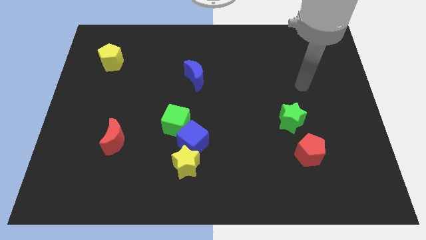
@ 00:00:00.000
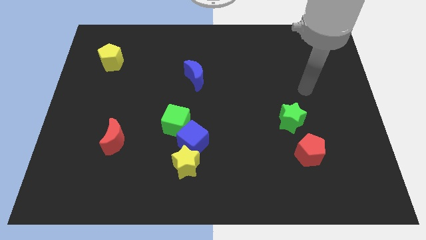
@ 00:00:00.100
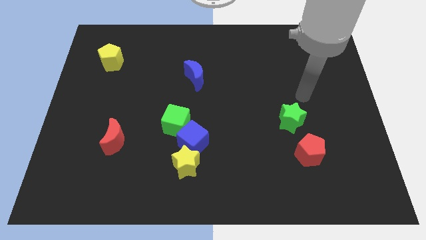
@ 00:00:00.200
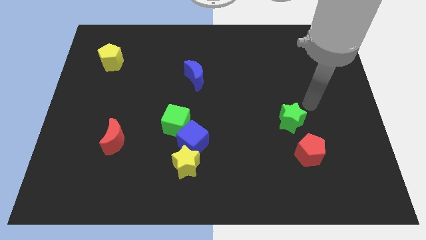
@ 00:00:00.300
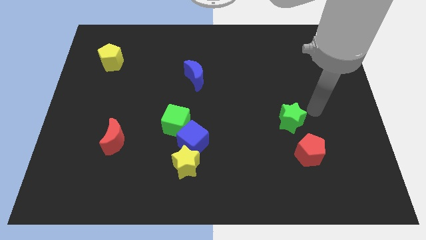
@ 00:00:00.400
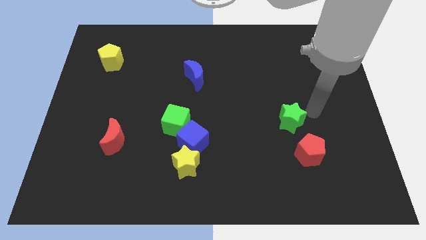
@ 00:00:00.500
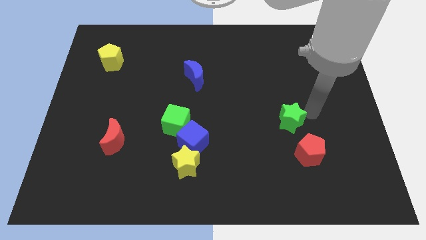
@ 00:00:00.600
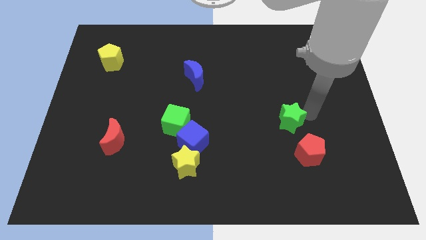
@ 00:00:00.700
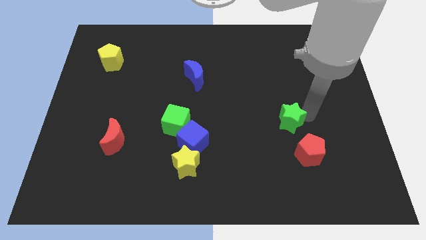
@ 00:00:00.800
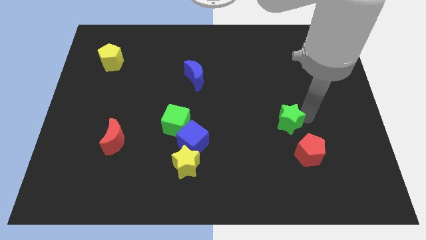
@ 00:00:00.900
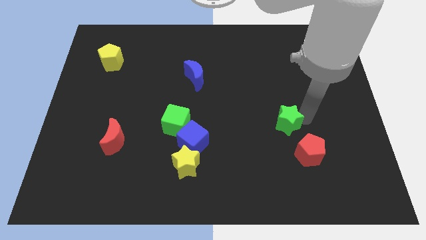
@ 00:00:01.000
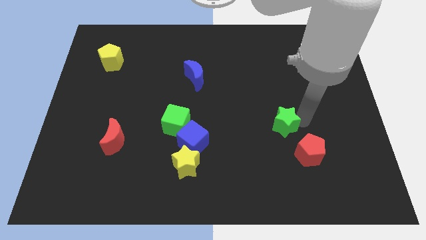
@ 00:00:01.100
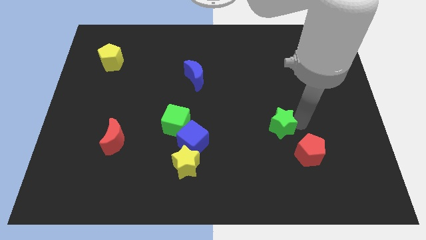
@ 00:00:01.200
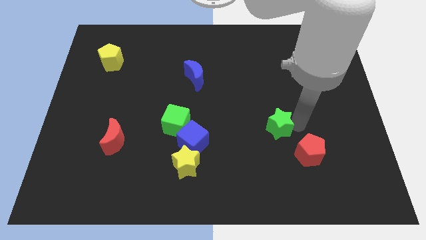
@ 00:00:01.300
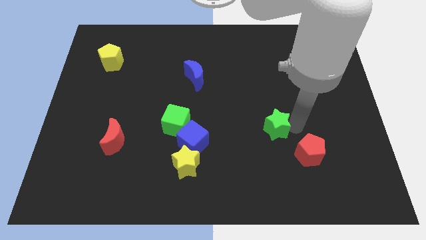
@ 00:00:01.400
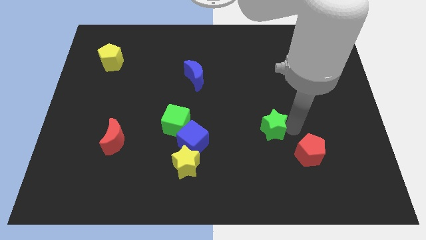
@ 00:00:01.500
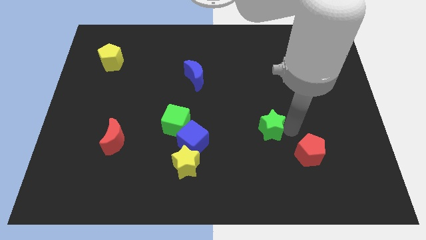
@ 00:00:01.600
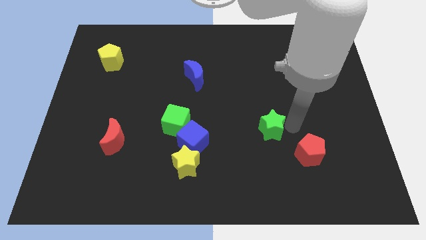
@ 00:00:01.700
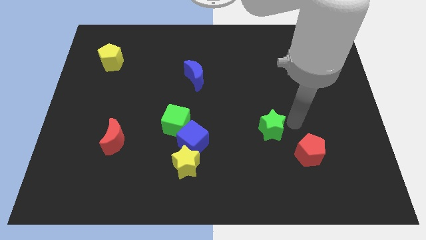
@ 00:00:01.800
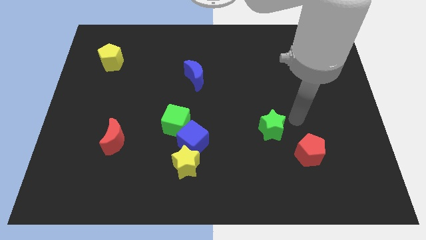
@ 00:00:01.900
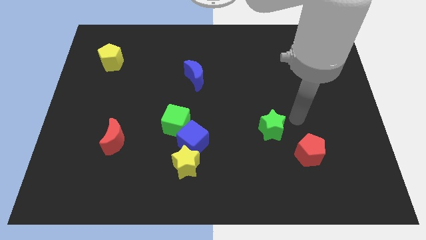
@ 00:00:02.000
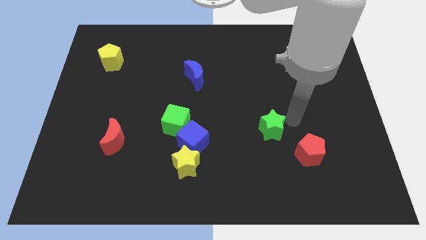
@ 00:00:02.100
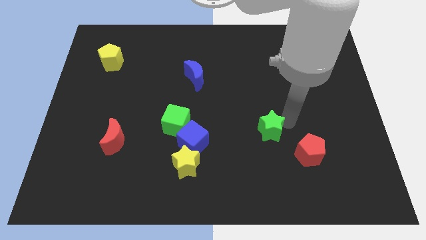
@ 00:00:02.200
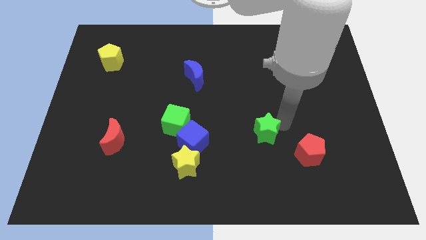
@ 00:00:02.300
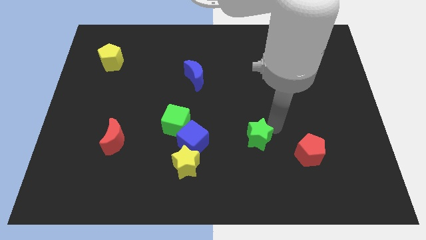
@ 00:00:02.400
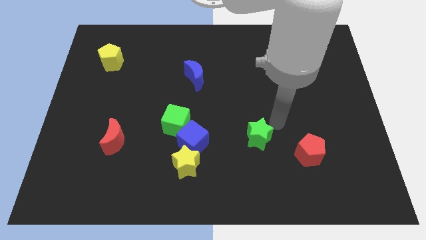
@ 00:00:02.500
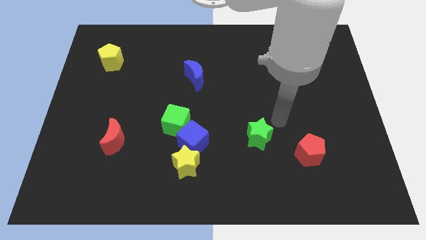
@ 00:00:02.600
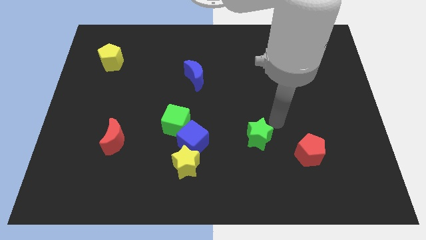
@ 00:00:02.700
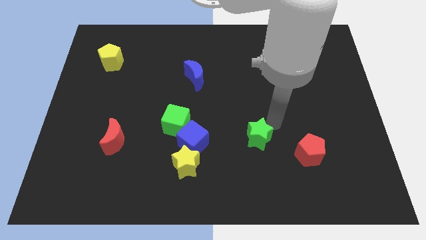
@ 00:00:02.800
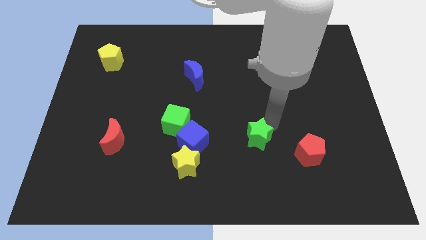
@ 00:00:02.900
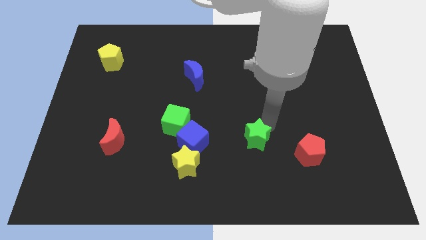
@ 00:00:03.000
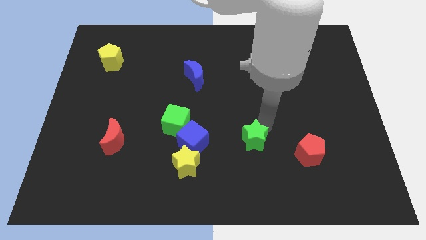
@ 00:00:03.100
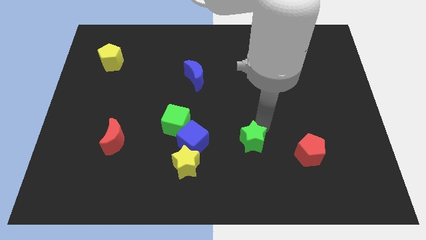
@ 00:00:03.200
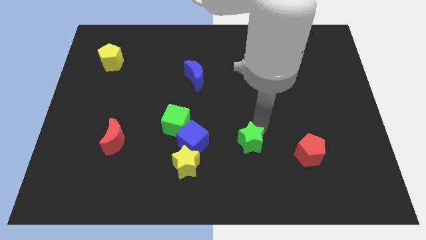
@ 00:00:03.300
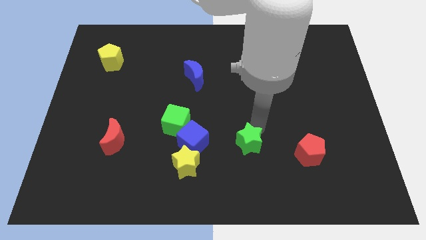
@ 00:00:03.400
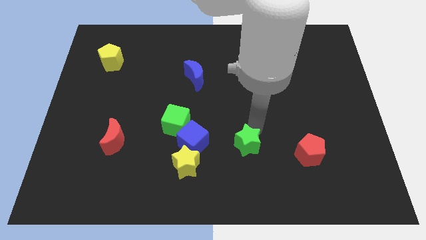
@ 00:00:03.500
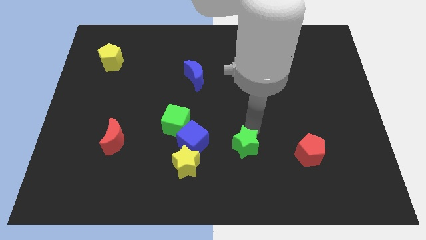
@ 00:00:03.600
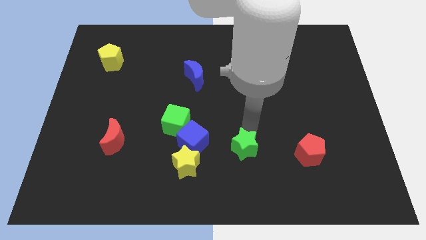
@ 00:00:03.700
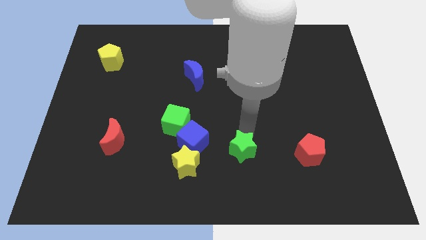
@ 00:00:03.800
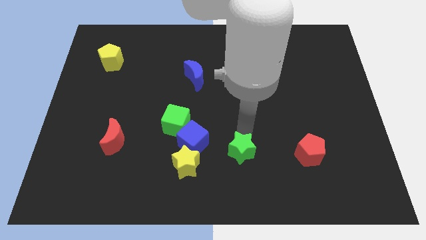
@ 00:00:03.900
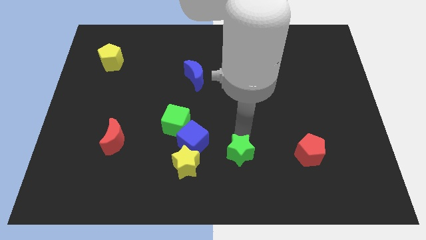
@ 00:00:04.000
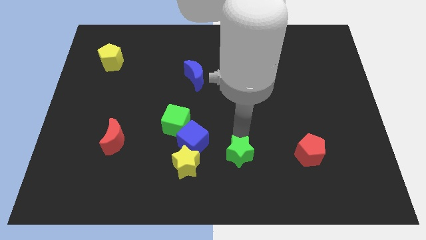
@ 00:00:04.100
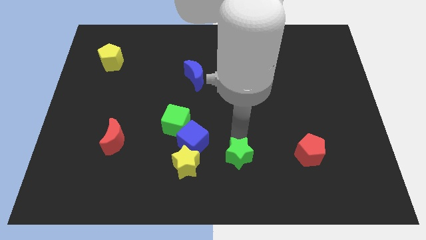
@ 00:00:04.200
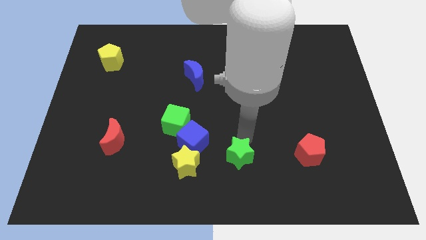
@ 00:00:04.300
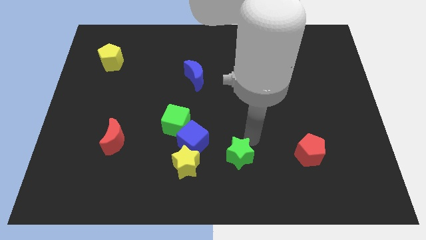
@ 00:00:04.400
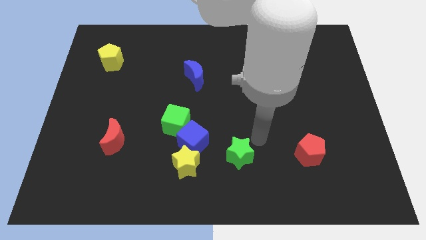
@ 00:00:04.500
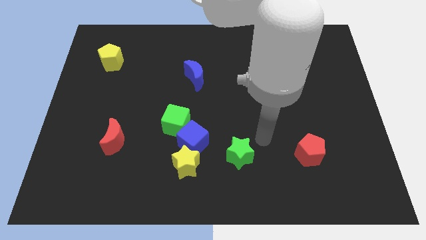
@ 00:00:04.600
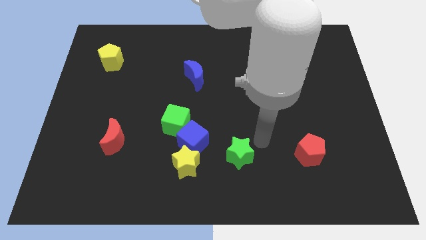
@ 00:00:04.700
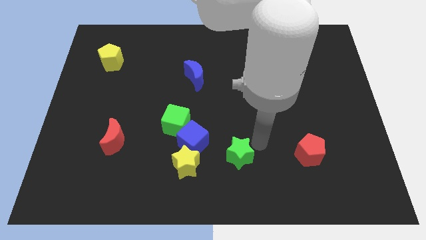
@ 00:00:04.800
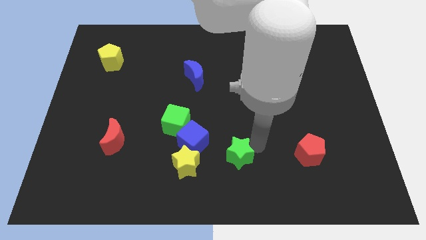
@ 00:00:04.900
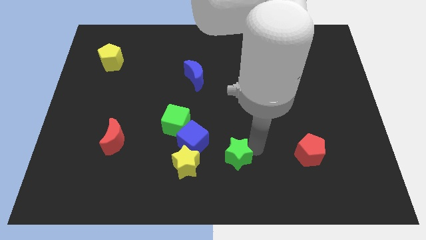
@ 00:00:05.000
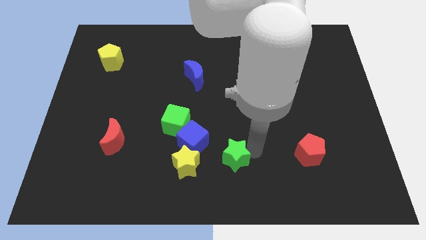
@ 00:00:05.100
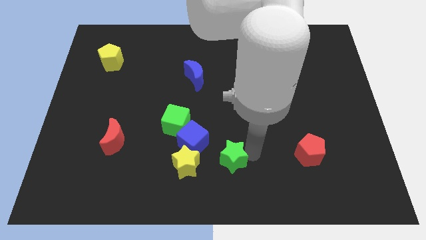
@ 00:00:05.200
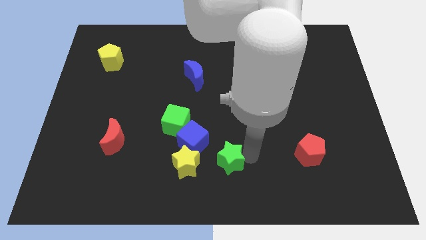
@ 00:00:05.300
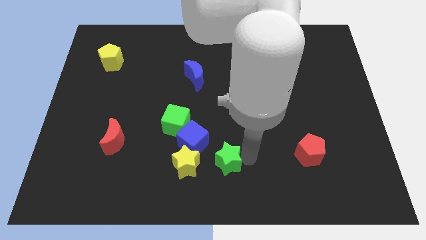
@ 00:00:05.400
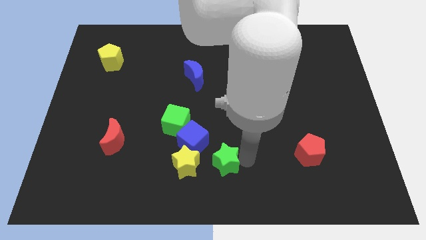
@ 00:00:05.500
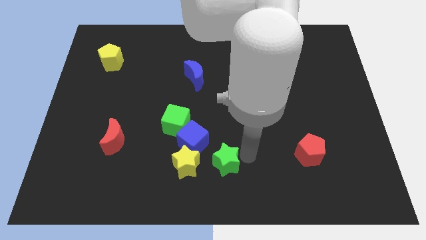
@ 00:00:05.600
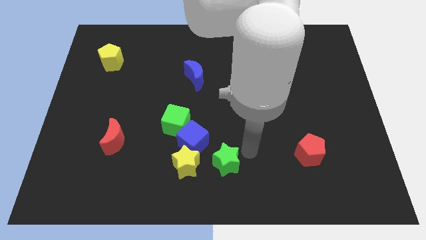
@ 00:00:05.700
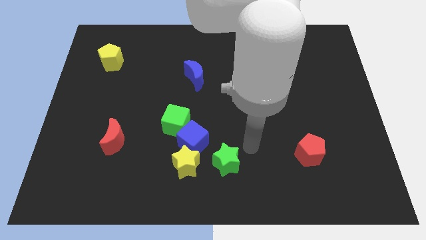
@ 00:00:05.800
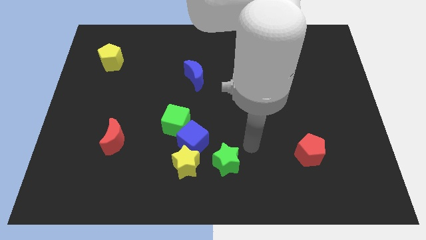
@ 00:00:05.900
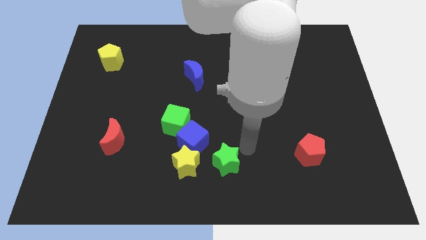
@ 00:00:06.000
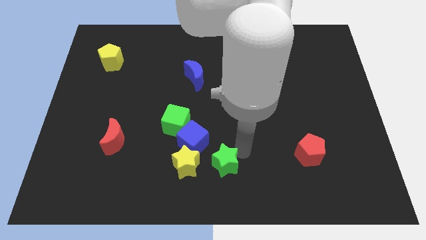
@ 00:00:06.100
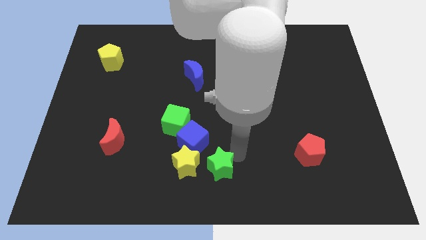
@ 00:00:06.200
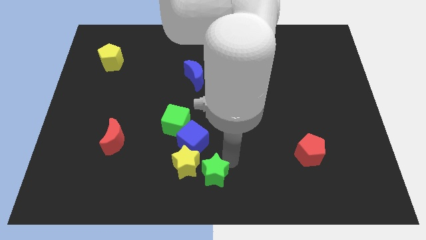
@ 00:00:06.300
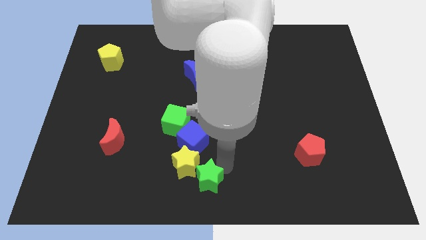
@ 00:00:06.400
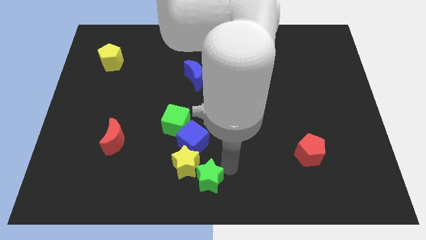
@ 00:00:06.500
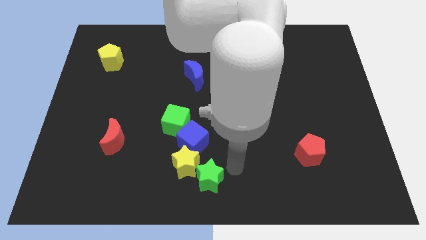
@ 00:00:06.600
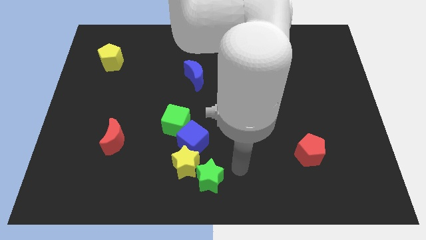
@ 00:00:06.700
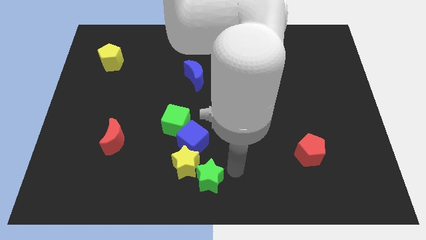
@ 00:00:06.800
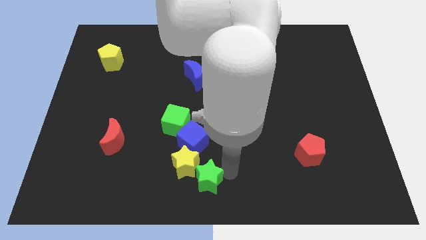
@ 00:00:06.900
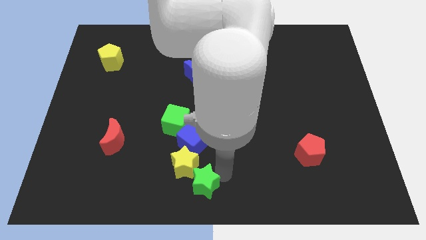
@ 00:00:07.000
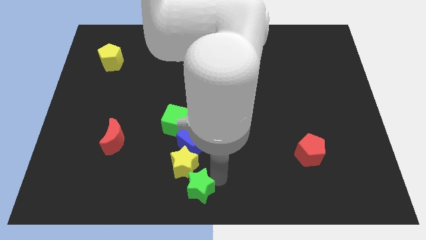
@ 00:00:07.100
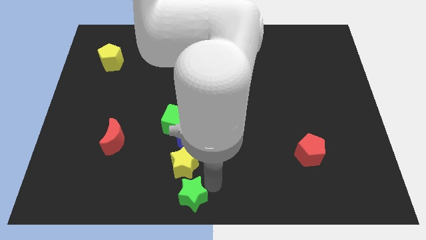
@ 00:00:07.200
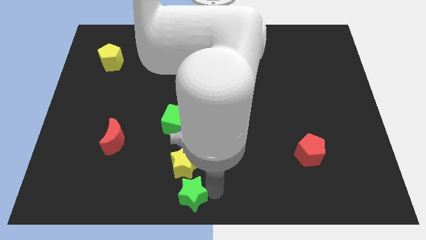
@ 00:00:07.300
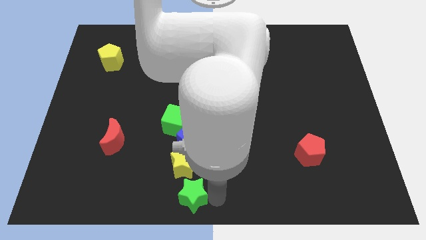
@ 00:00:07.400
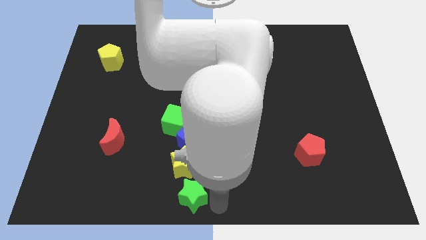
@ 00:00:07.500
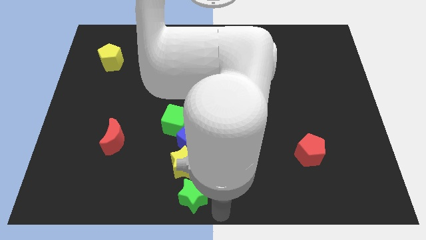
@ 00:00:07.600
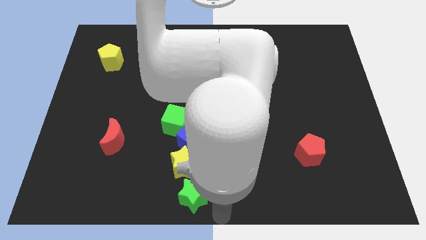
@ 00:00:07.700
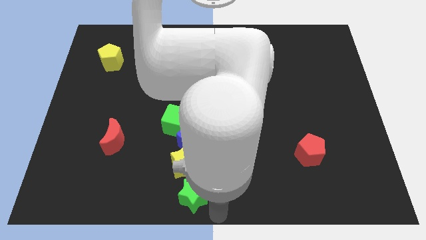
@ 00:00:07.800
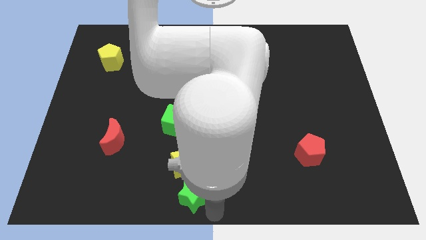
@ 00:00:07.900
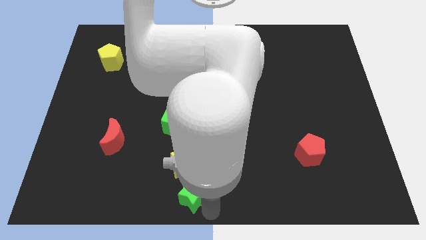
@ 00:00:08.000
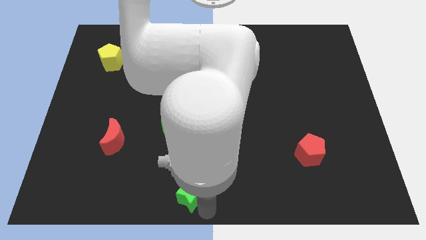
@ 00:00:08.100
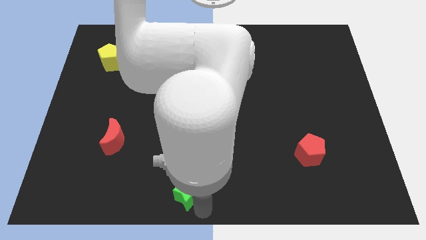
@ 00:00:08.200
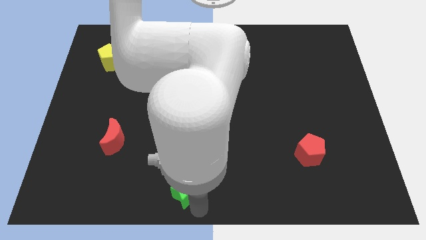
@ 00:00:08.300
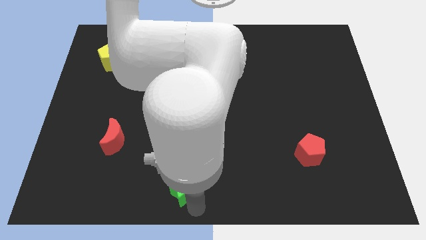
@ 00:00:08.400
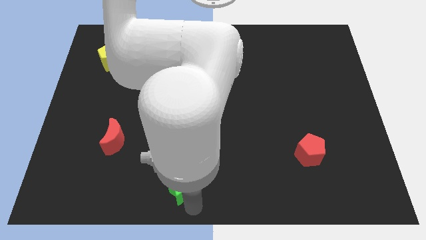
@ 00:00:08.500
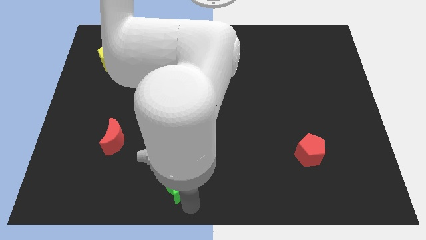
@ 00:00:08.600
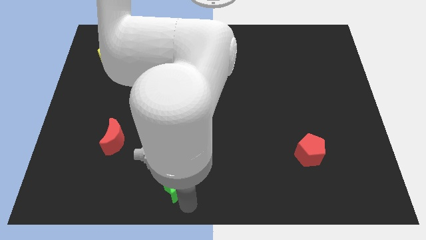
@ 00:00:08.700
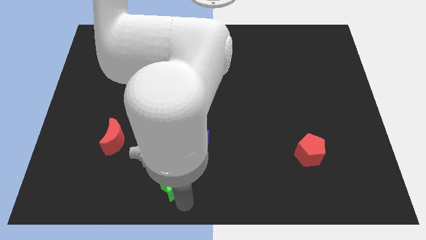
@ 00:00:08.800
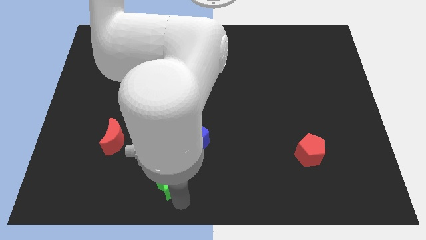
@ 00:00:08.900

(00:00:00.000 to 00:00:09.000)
move the green star to the bottom left side of the blue cube
